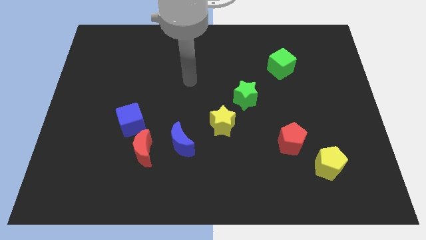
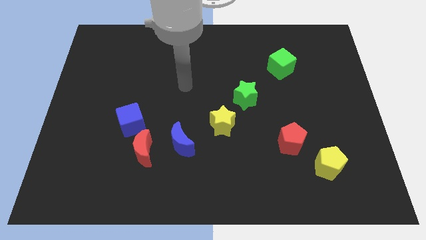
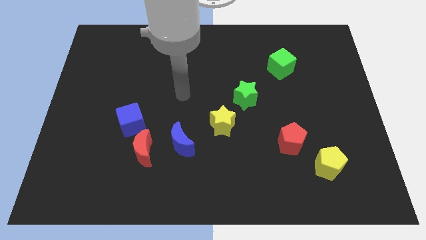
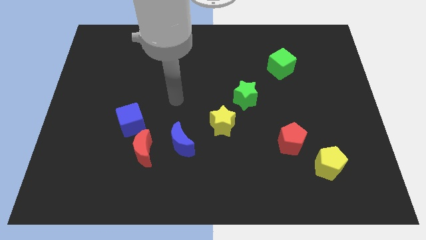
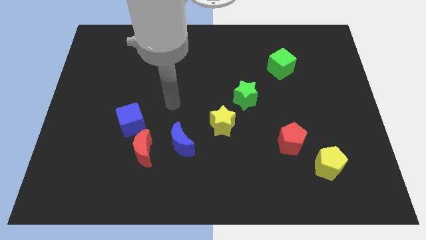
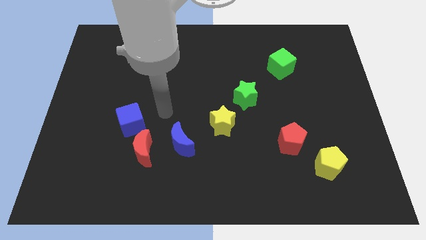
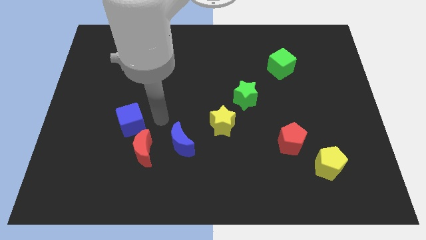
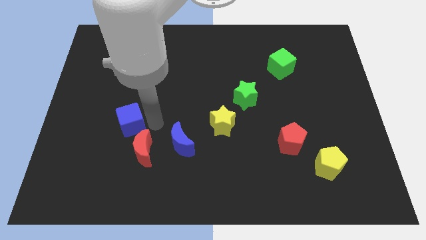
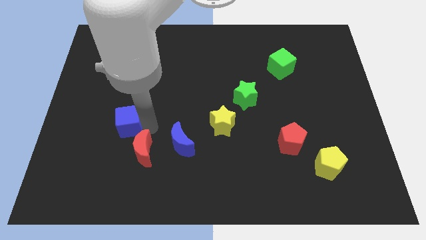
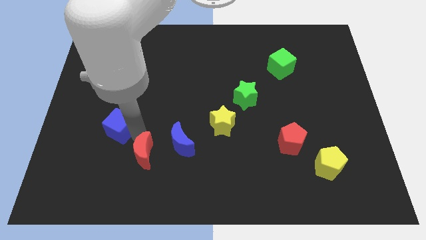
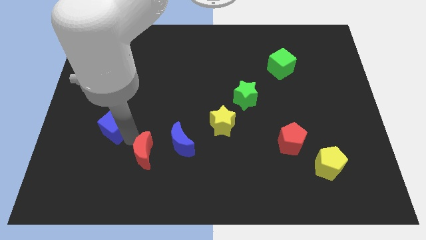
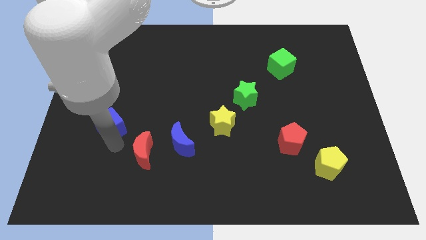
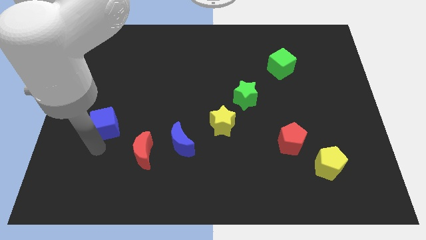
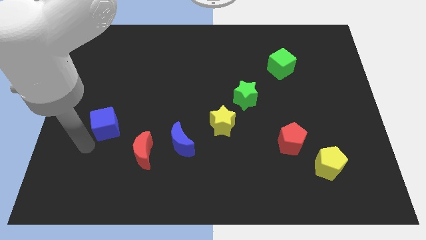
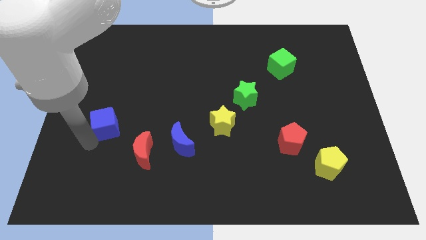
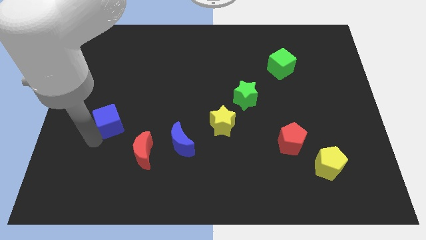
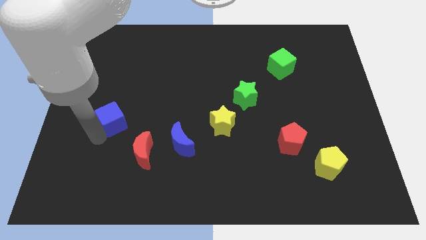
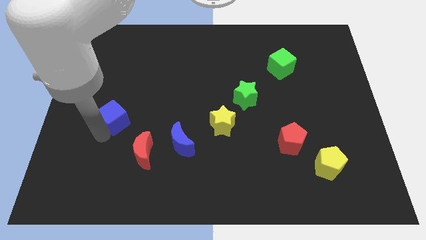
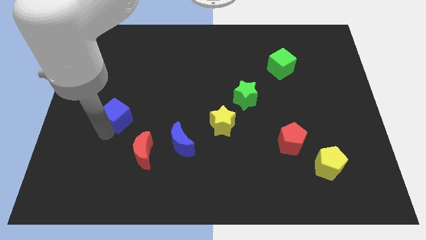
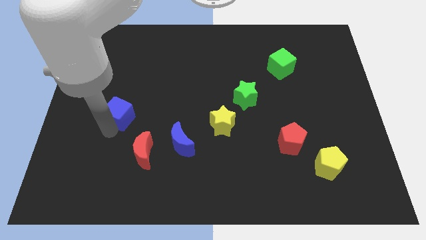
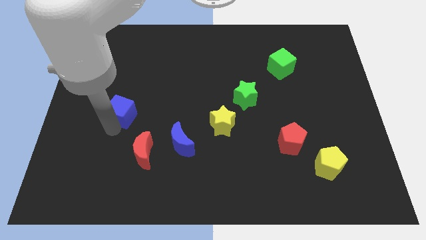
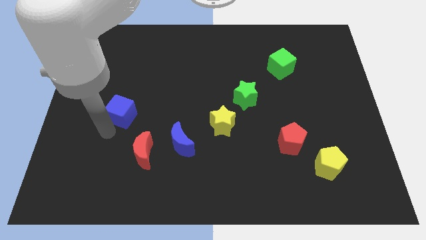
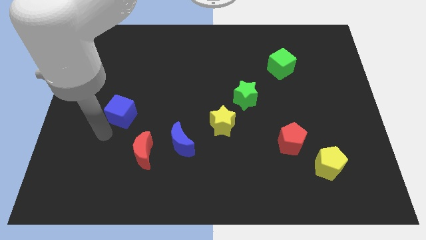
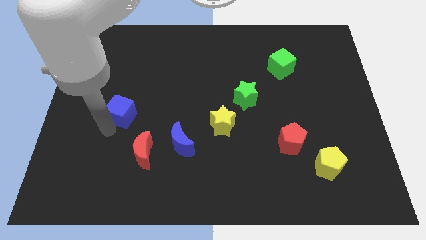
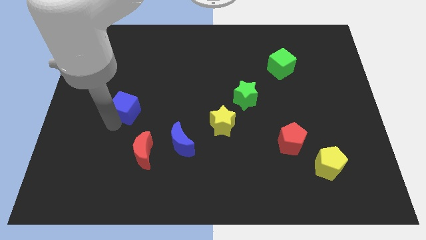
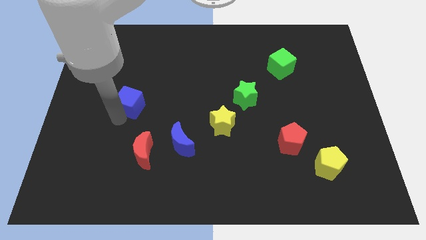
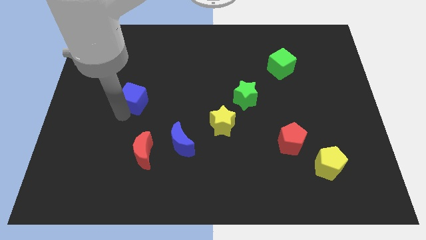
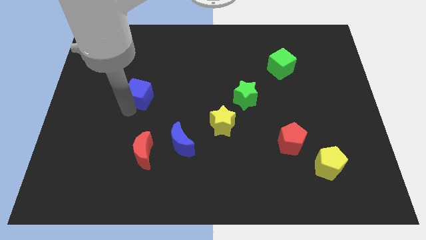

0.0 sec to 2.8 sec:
slightly push the blue cube up

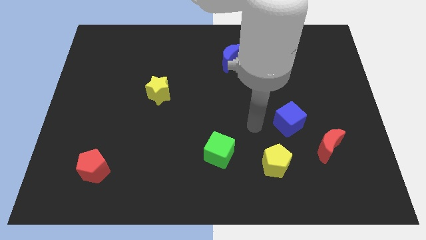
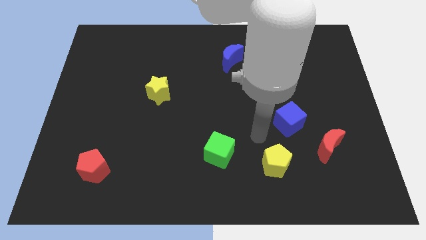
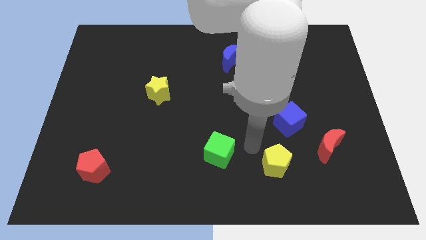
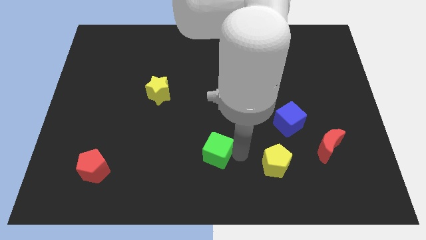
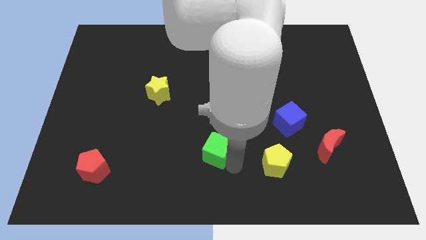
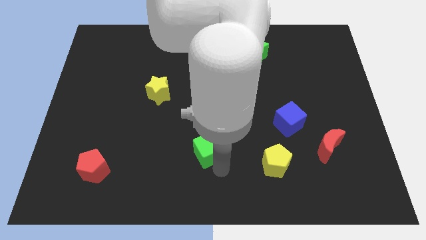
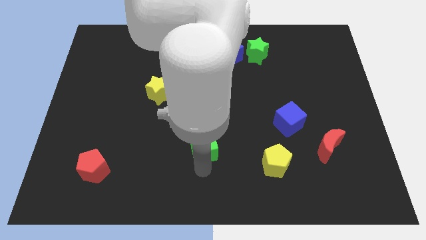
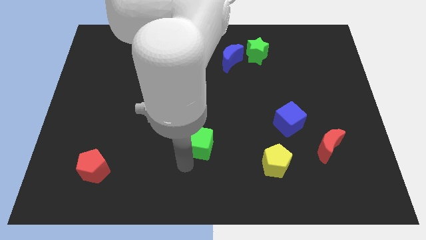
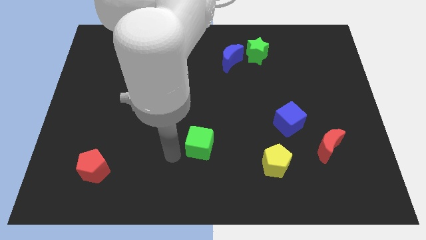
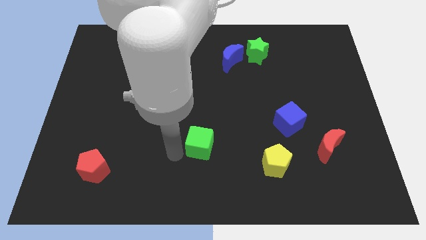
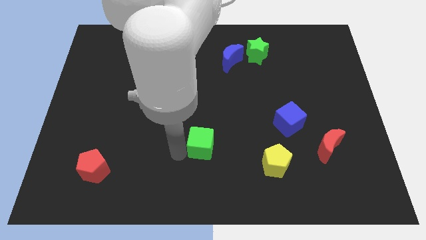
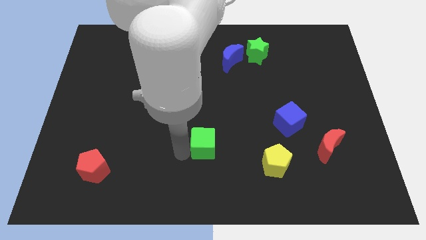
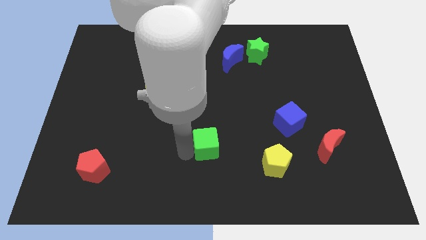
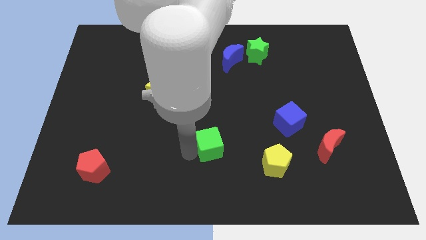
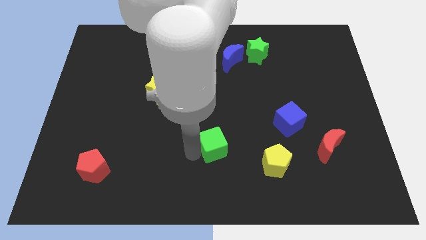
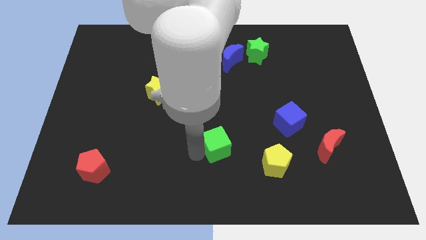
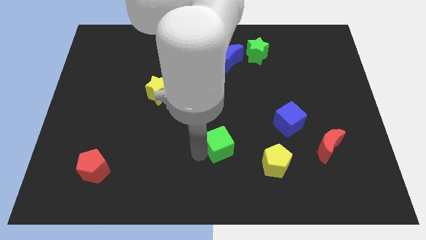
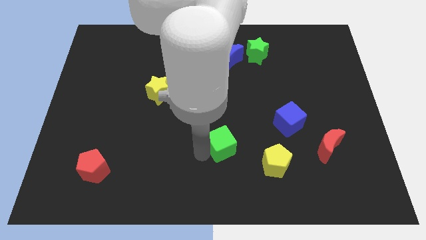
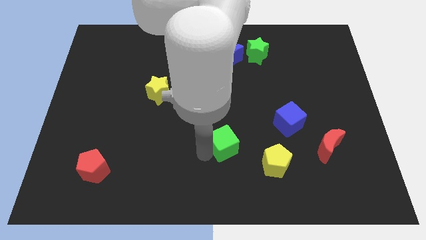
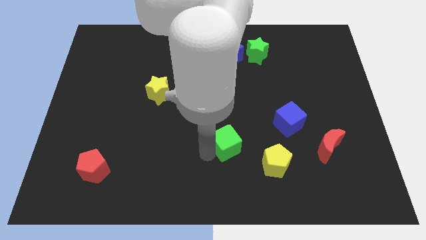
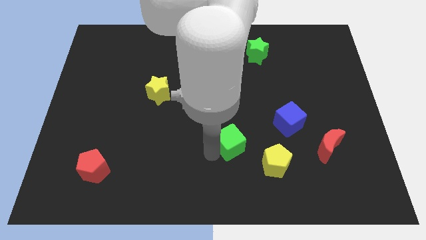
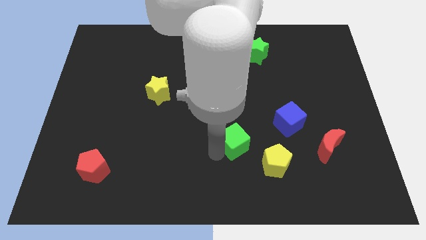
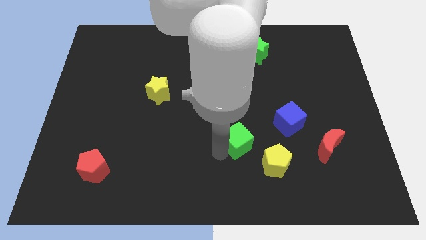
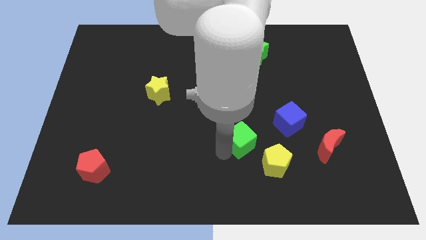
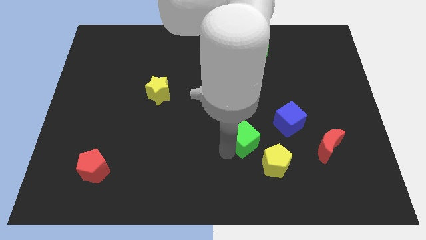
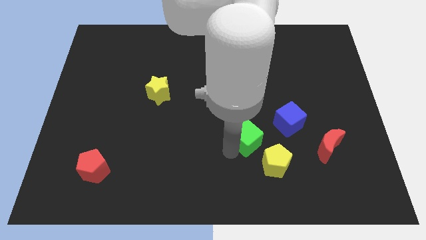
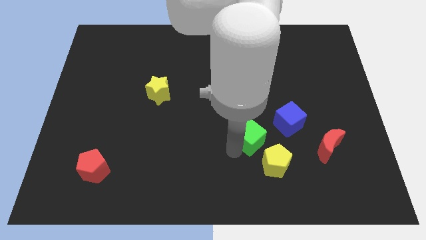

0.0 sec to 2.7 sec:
slightly move the green cube upwards and to the right

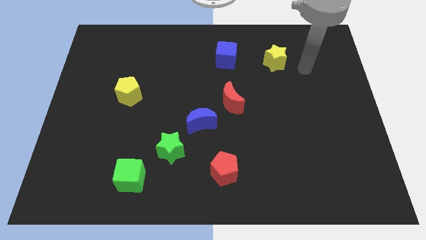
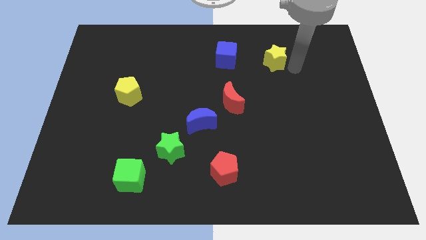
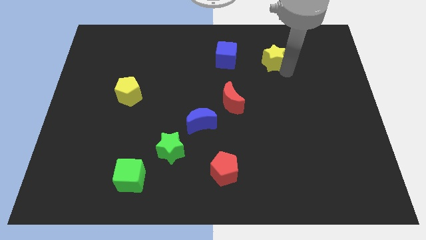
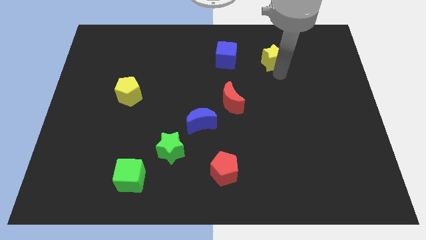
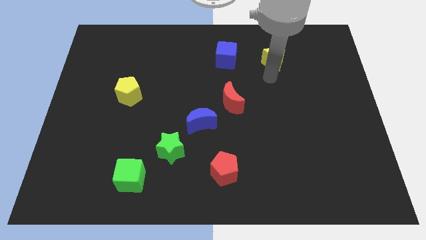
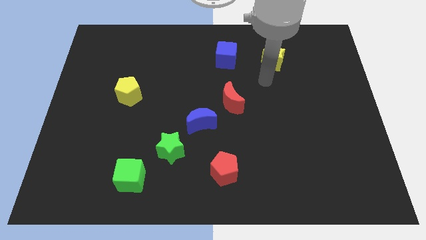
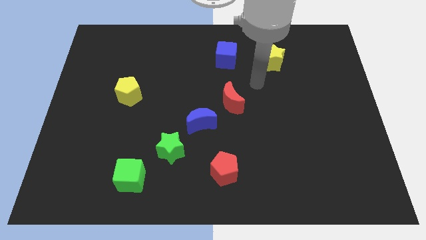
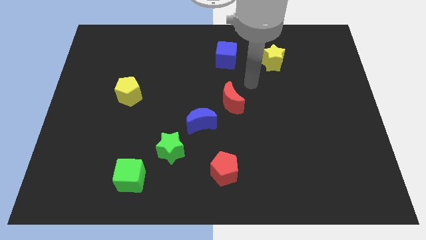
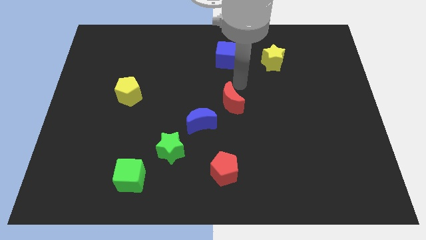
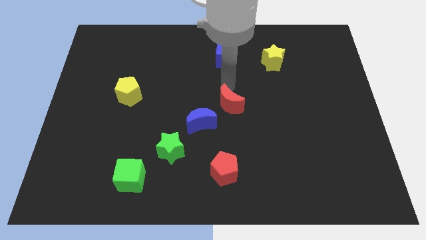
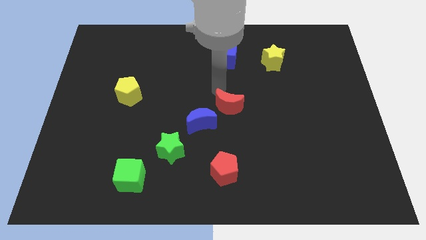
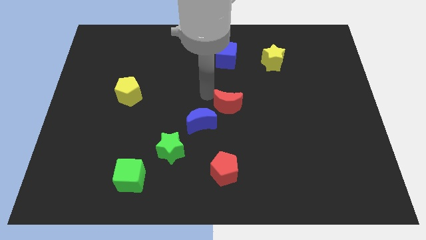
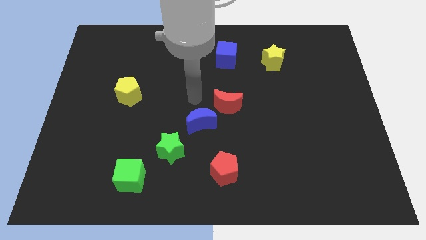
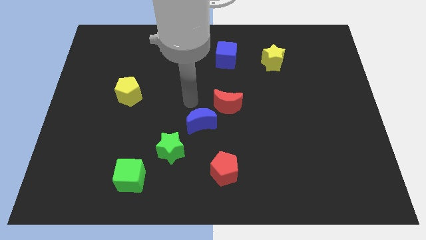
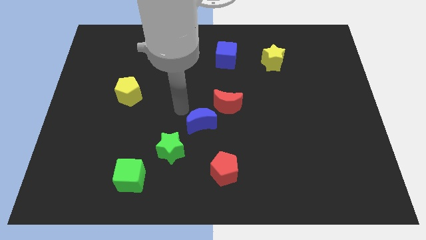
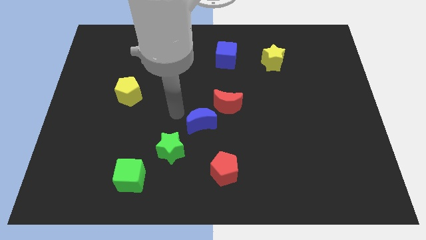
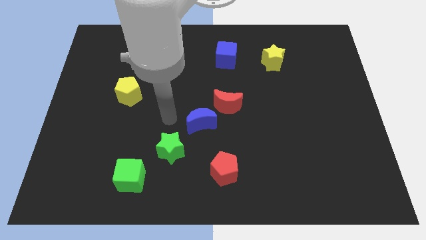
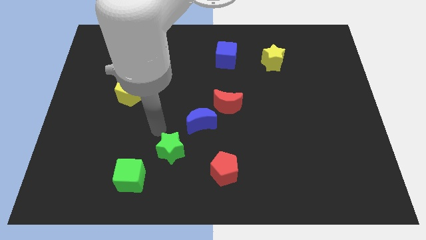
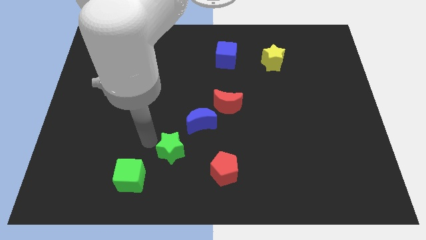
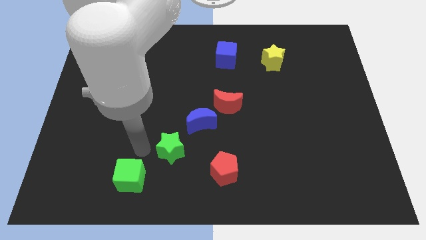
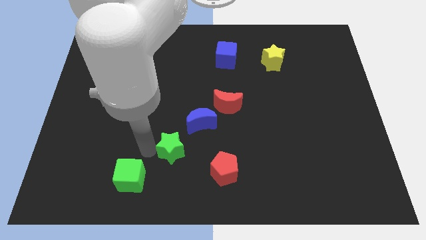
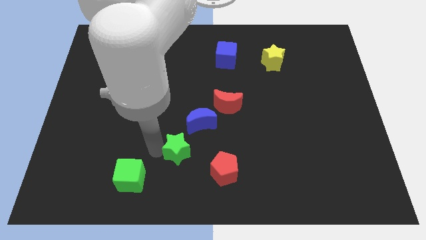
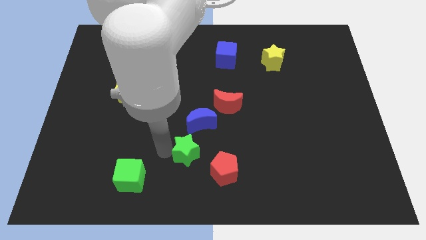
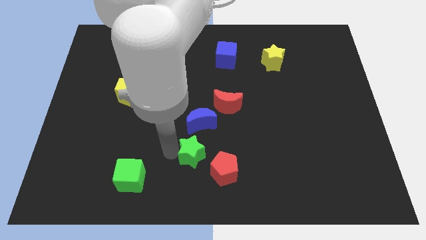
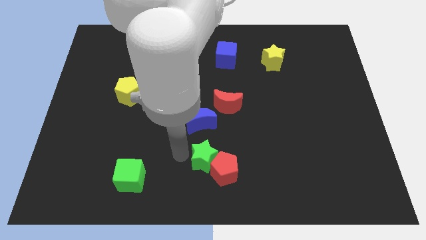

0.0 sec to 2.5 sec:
push the green star a bit to the right
